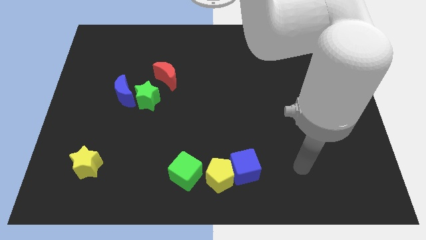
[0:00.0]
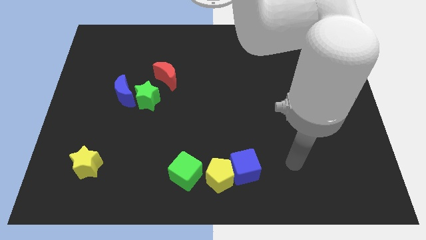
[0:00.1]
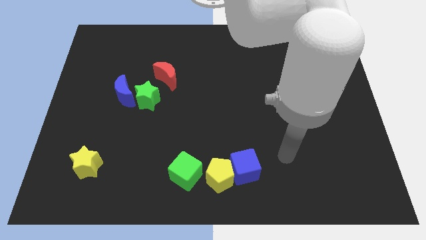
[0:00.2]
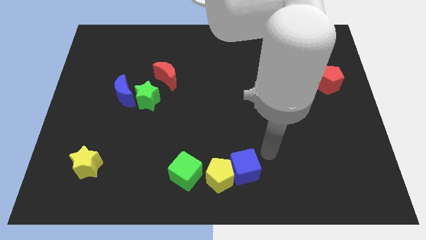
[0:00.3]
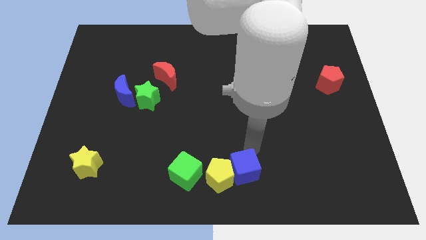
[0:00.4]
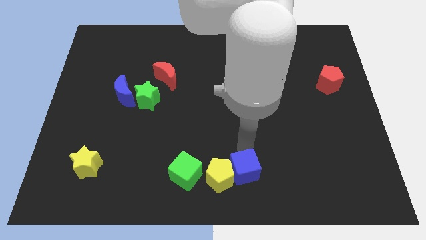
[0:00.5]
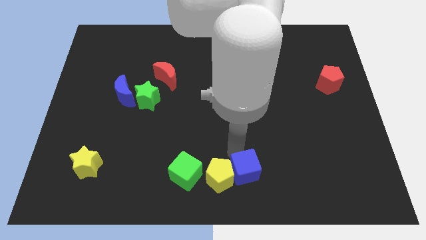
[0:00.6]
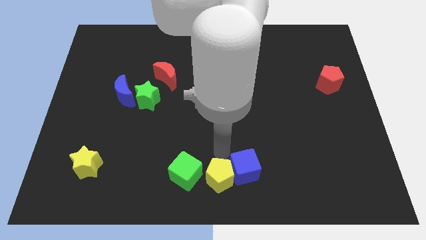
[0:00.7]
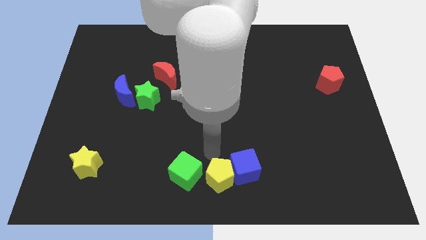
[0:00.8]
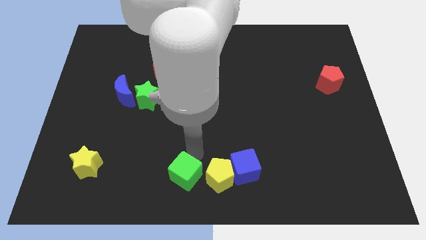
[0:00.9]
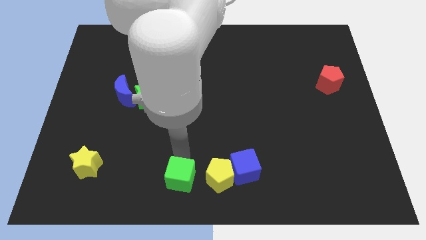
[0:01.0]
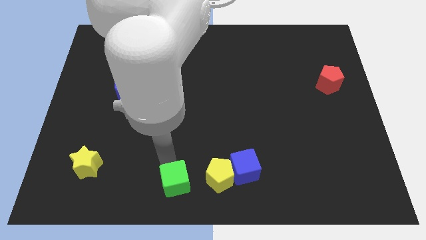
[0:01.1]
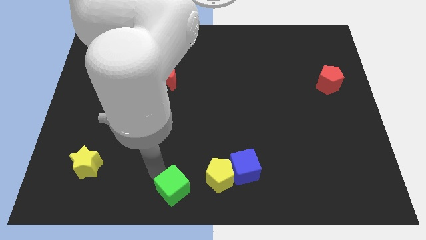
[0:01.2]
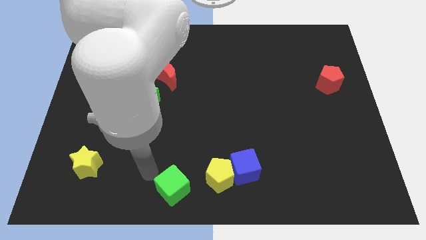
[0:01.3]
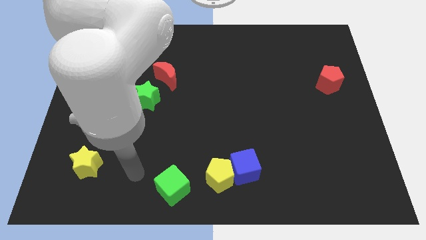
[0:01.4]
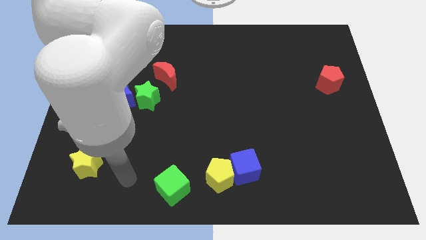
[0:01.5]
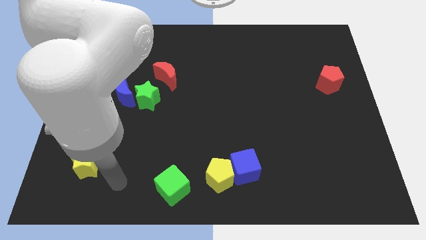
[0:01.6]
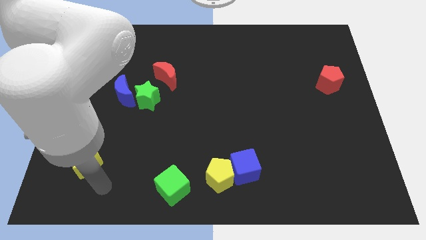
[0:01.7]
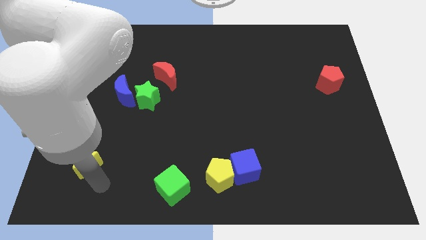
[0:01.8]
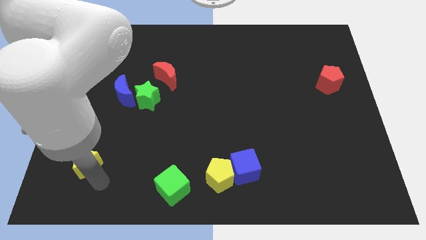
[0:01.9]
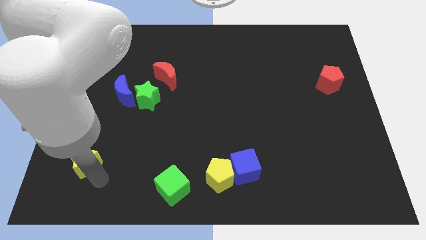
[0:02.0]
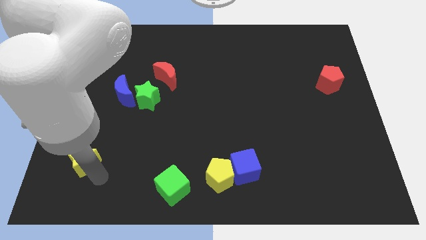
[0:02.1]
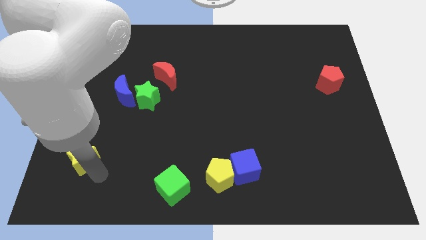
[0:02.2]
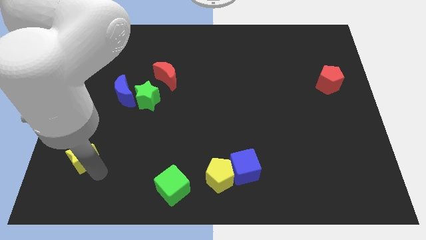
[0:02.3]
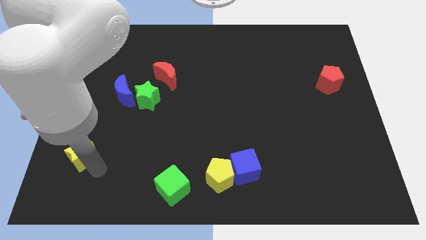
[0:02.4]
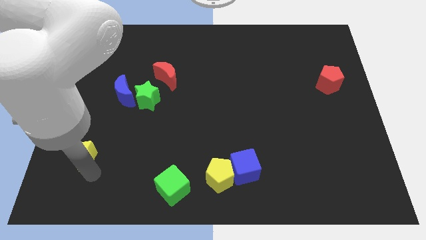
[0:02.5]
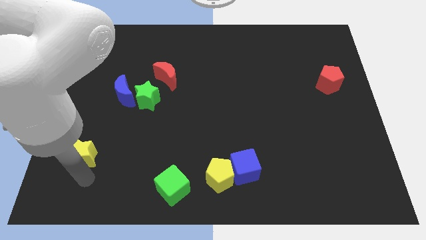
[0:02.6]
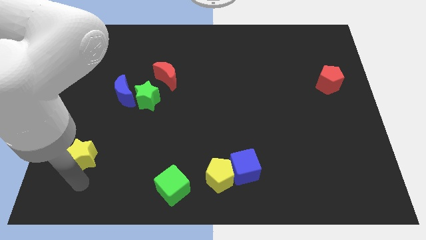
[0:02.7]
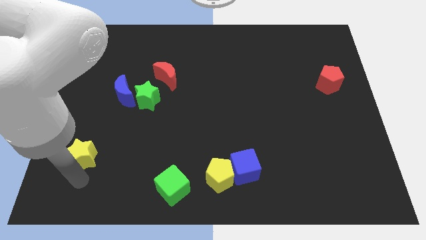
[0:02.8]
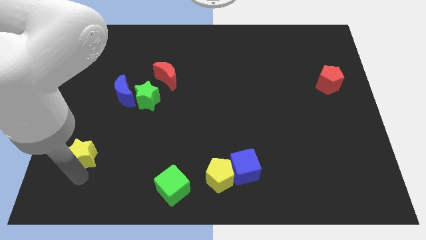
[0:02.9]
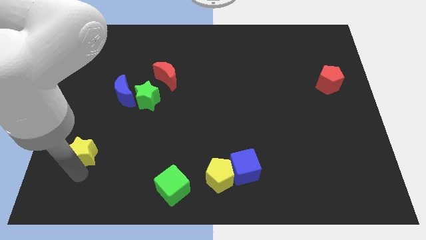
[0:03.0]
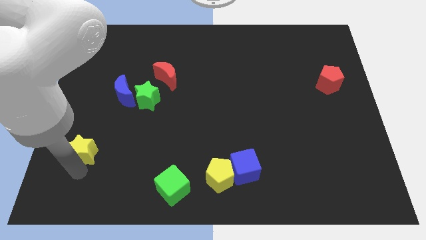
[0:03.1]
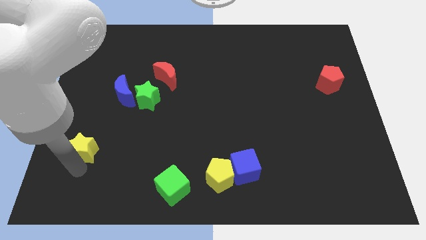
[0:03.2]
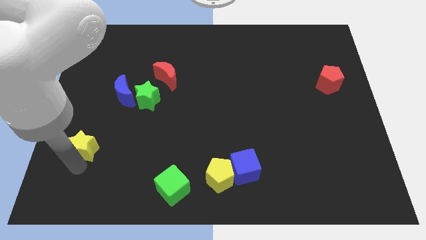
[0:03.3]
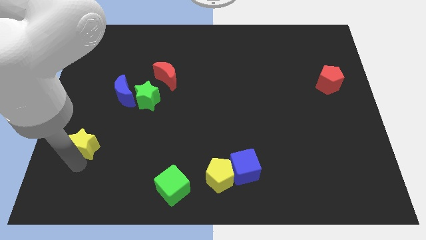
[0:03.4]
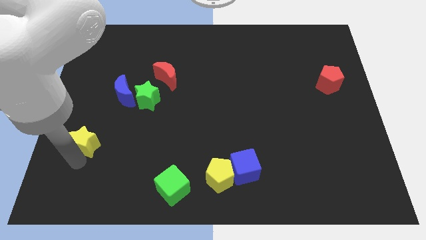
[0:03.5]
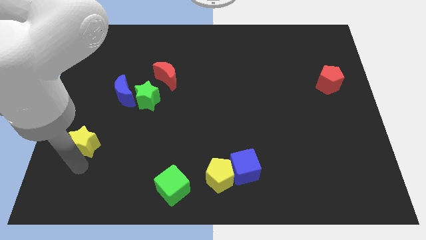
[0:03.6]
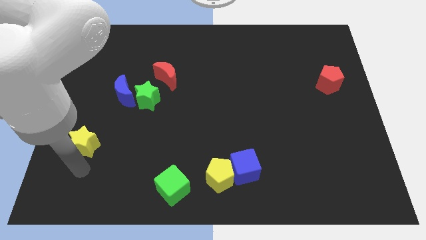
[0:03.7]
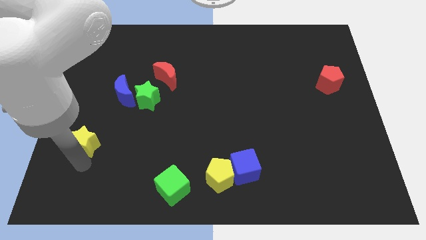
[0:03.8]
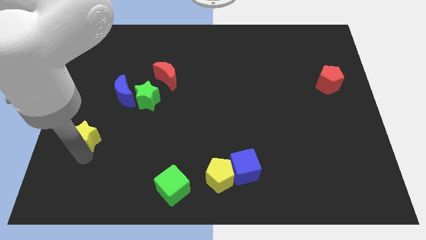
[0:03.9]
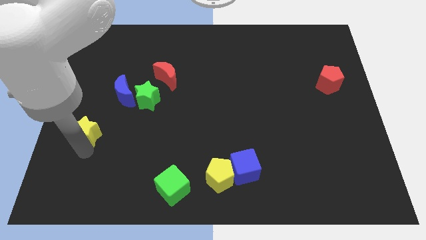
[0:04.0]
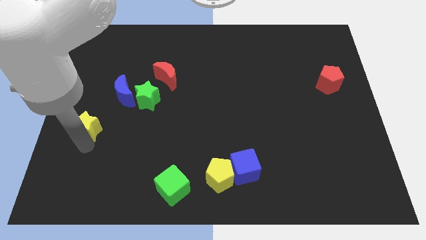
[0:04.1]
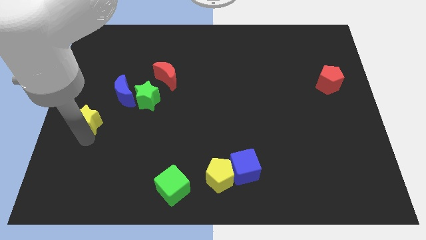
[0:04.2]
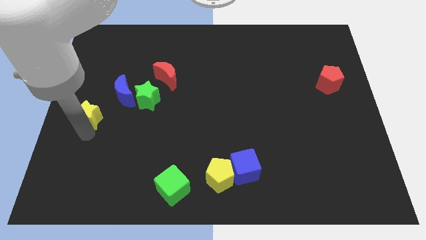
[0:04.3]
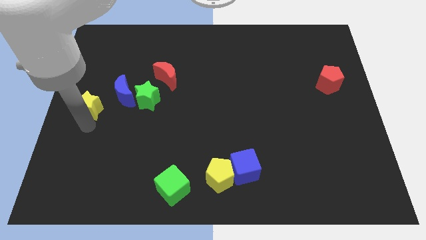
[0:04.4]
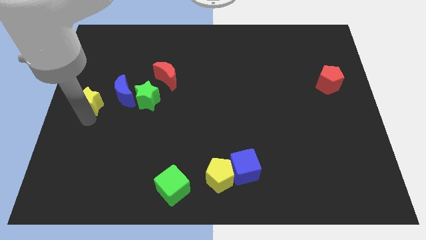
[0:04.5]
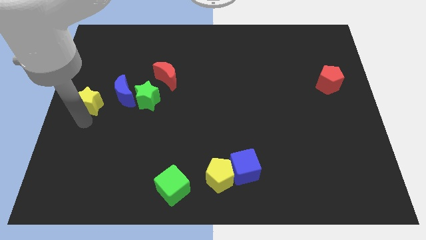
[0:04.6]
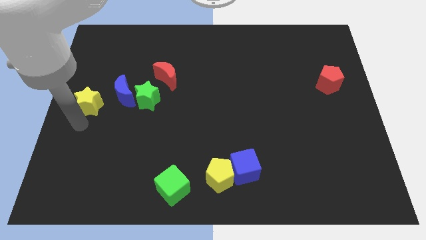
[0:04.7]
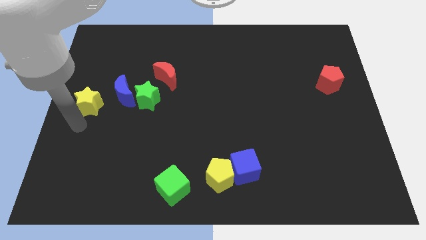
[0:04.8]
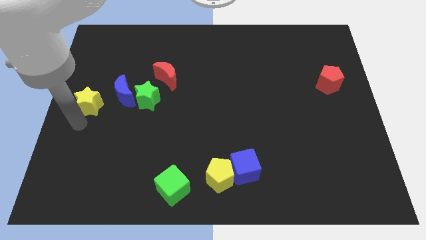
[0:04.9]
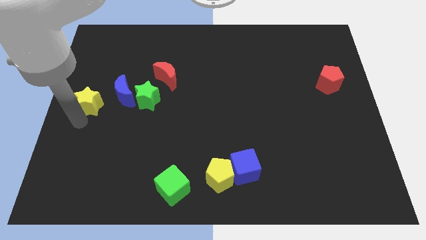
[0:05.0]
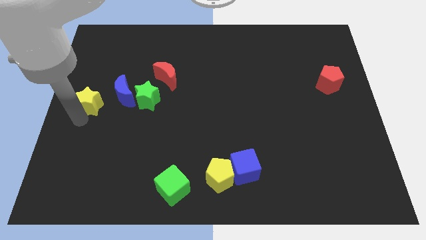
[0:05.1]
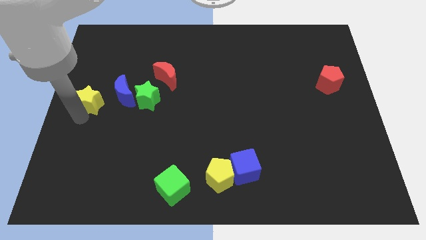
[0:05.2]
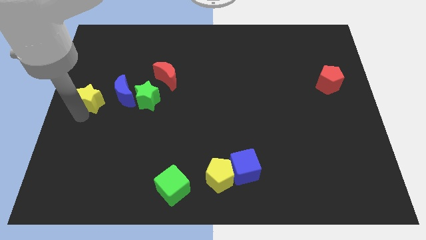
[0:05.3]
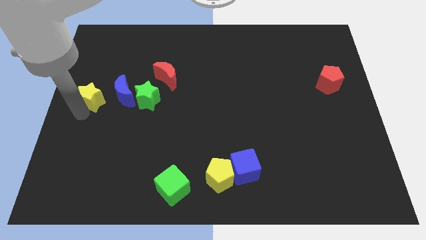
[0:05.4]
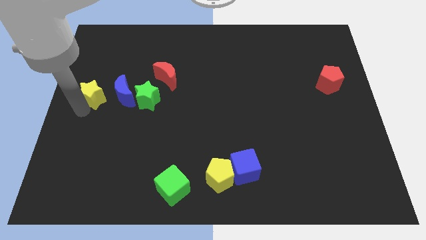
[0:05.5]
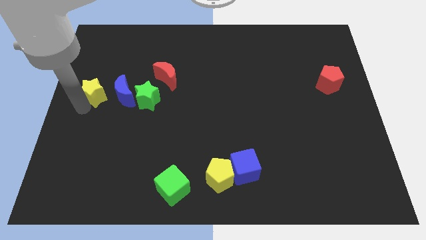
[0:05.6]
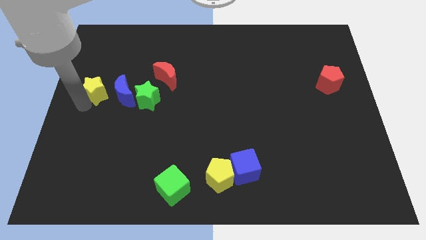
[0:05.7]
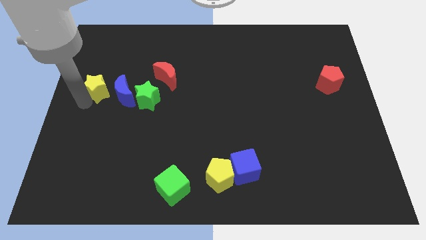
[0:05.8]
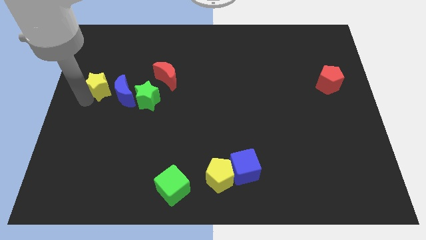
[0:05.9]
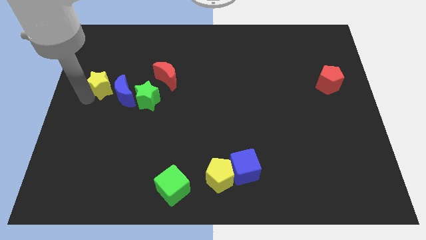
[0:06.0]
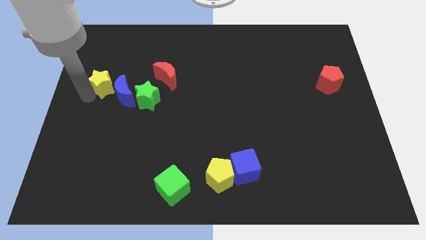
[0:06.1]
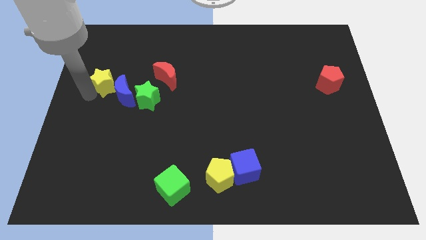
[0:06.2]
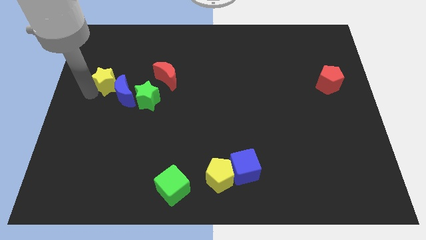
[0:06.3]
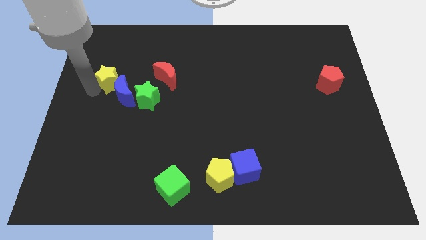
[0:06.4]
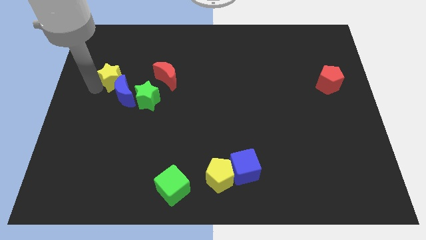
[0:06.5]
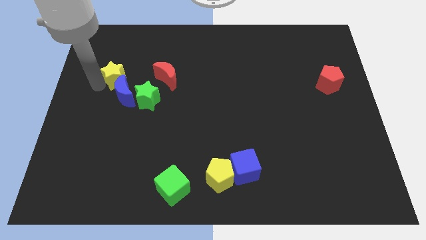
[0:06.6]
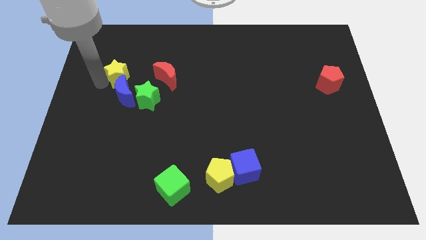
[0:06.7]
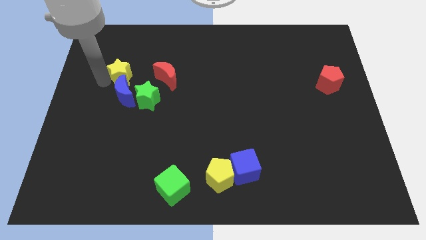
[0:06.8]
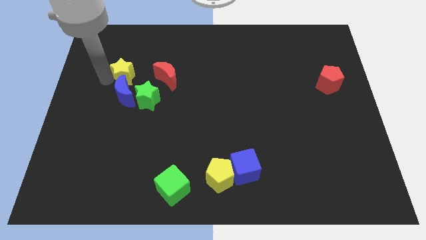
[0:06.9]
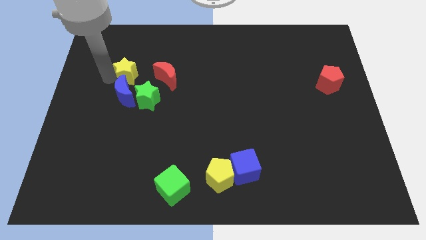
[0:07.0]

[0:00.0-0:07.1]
push the yellow star to the top right side of the blue moon
